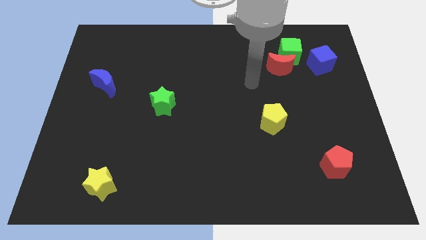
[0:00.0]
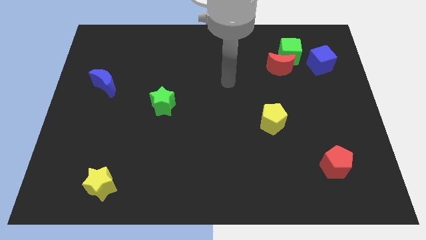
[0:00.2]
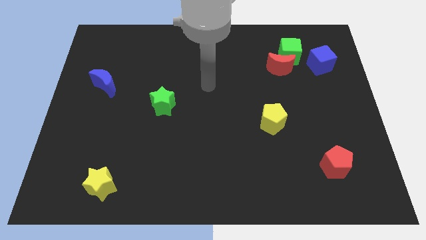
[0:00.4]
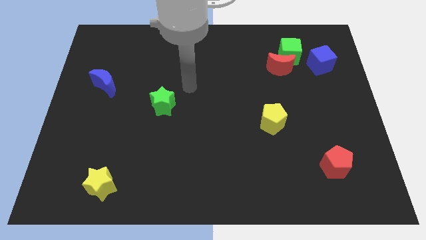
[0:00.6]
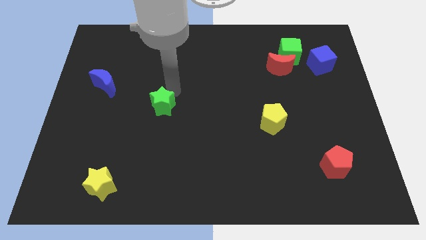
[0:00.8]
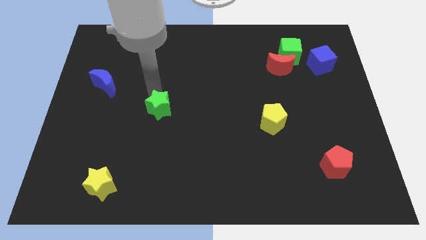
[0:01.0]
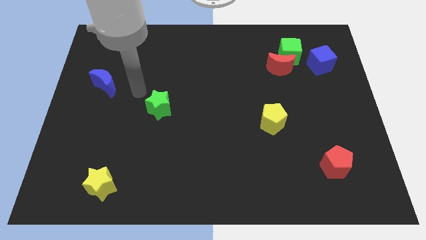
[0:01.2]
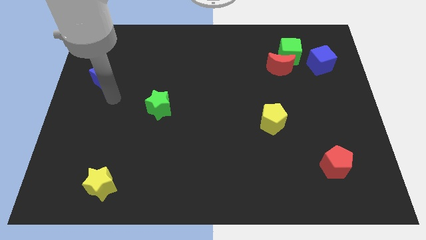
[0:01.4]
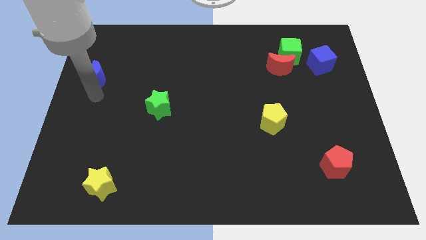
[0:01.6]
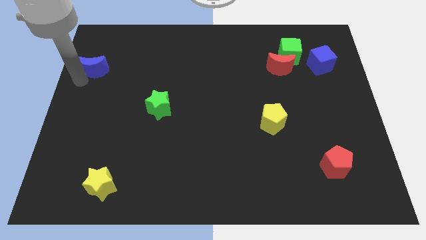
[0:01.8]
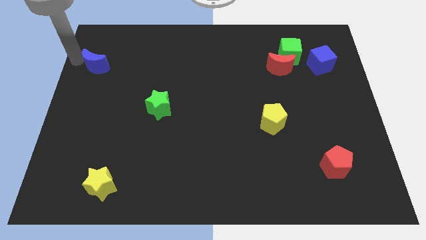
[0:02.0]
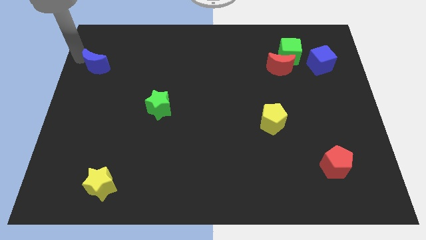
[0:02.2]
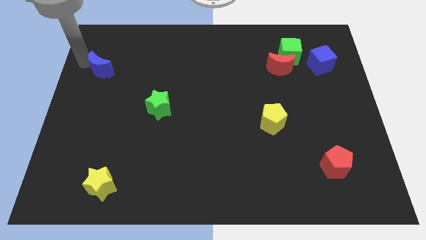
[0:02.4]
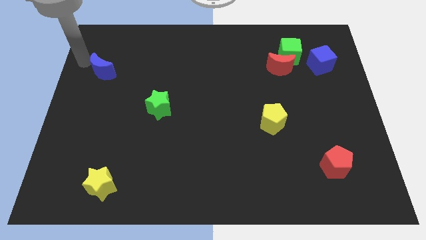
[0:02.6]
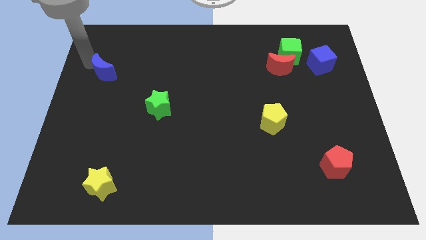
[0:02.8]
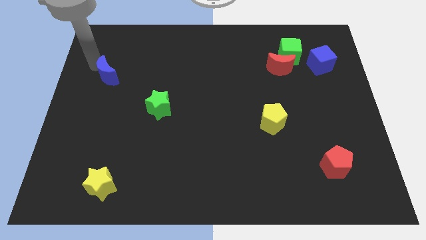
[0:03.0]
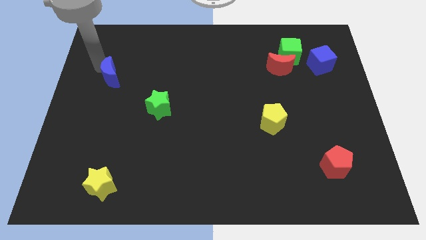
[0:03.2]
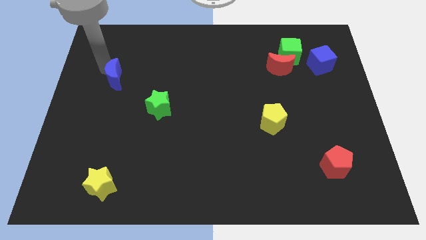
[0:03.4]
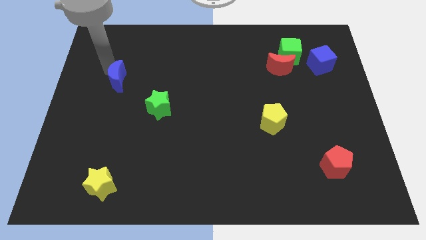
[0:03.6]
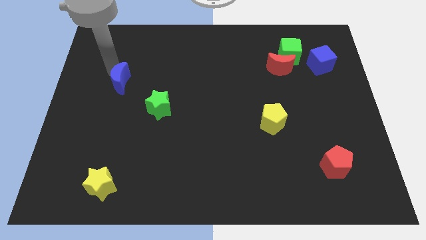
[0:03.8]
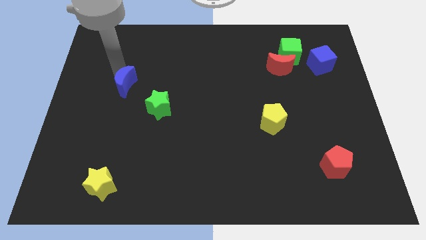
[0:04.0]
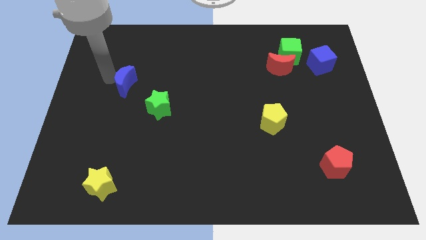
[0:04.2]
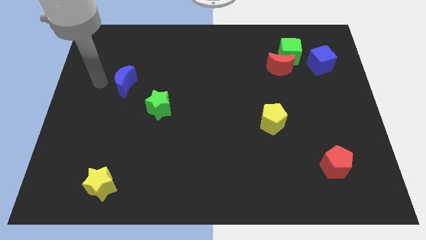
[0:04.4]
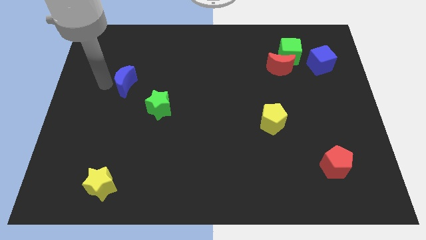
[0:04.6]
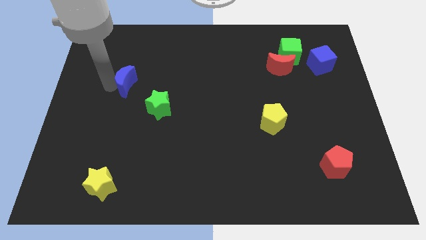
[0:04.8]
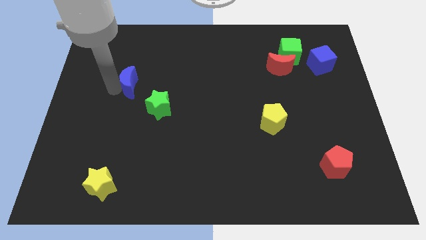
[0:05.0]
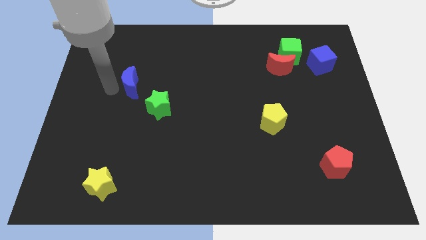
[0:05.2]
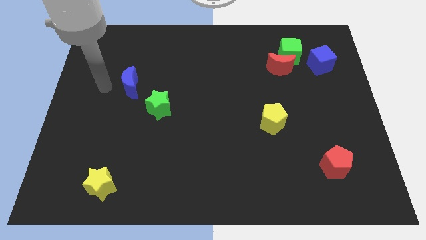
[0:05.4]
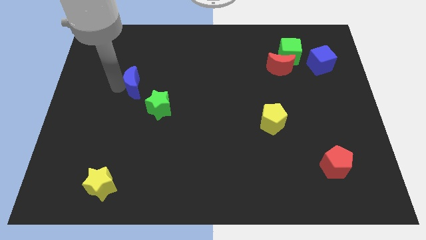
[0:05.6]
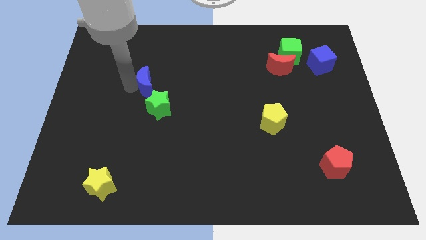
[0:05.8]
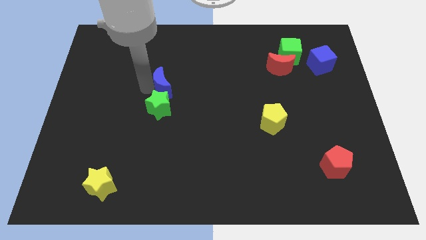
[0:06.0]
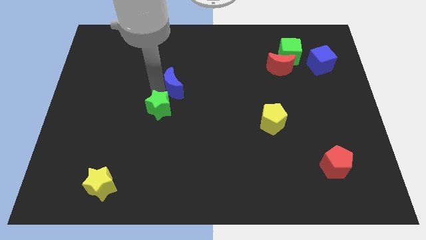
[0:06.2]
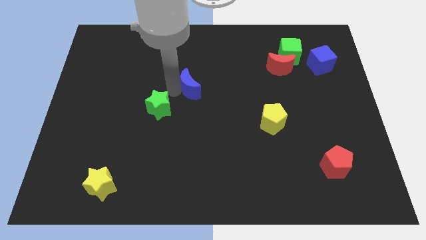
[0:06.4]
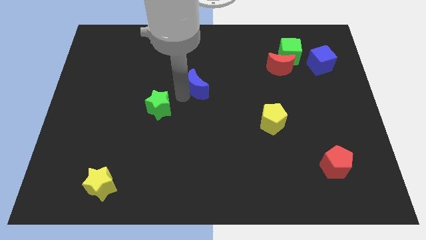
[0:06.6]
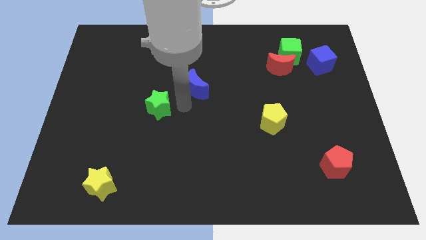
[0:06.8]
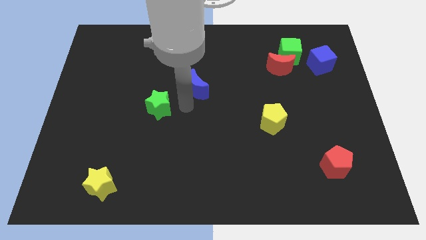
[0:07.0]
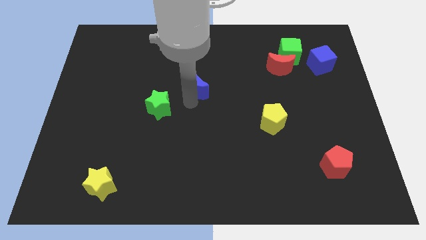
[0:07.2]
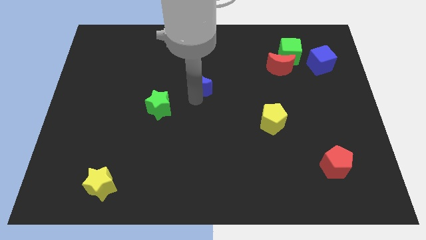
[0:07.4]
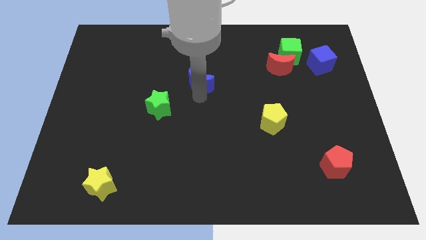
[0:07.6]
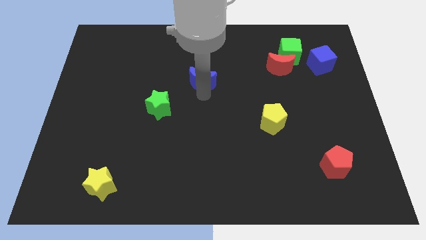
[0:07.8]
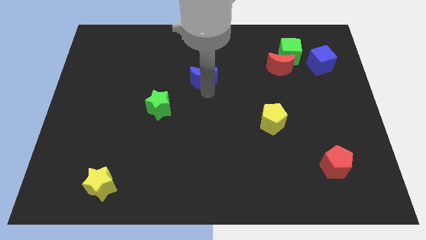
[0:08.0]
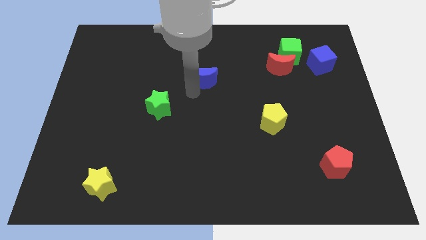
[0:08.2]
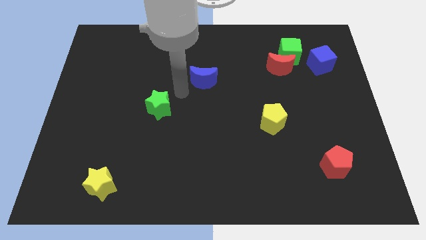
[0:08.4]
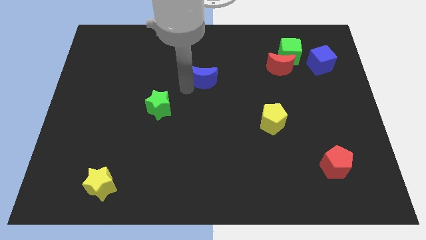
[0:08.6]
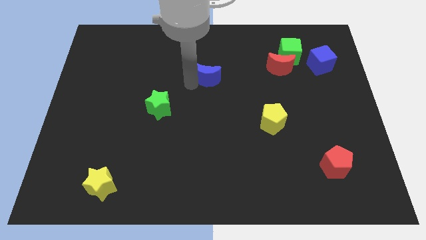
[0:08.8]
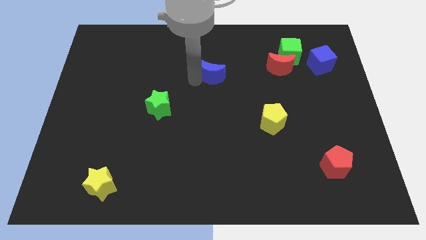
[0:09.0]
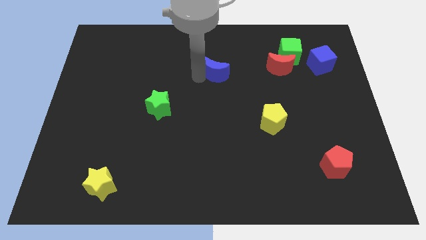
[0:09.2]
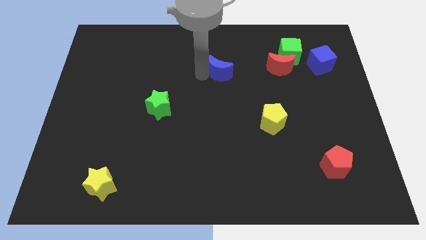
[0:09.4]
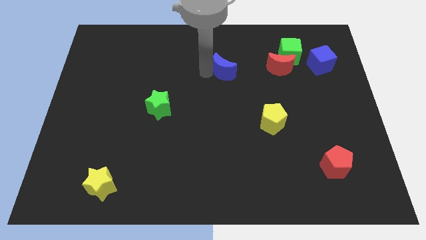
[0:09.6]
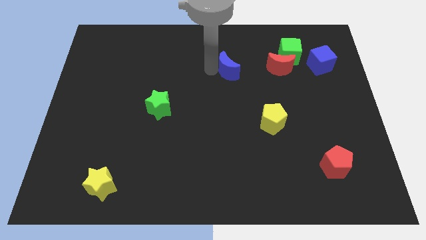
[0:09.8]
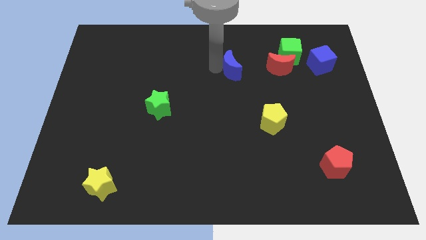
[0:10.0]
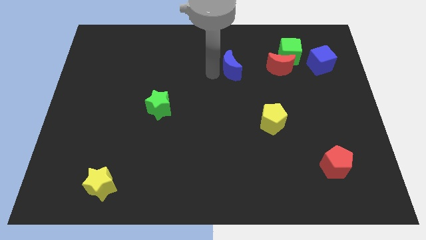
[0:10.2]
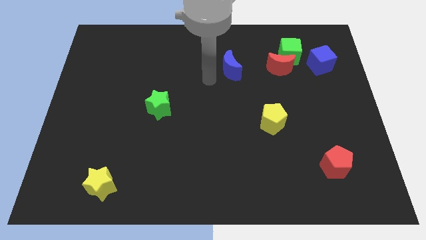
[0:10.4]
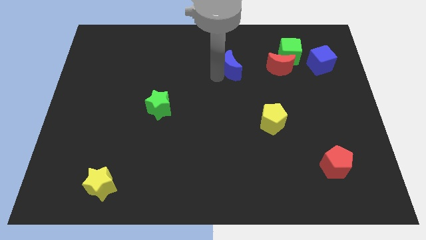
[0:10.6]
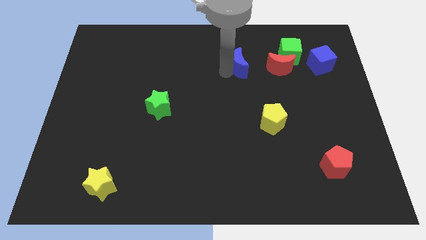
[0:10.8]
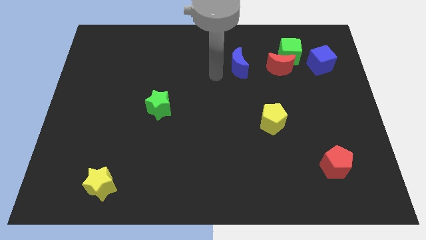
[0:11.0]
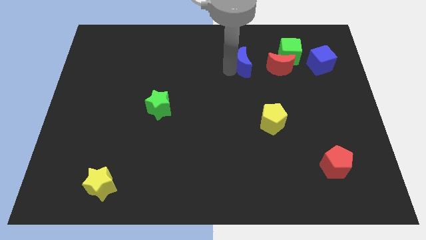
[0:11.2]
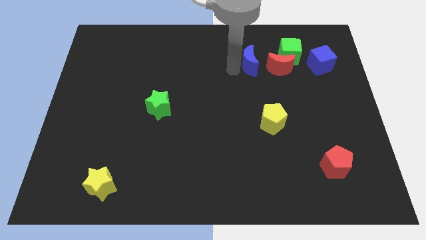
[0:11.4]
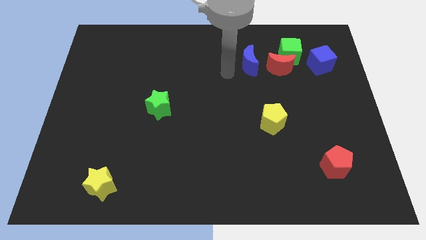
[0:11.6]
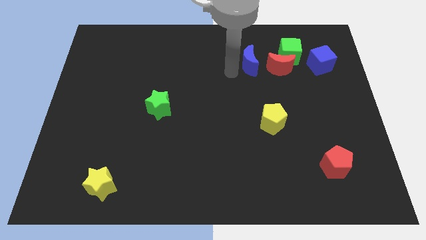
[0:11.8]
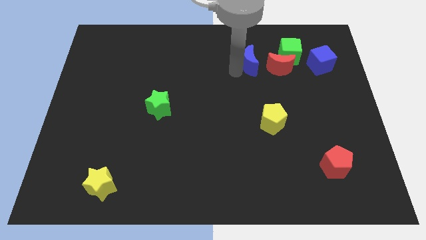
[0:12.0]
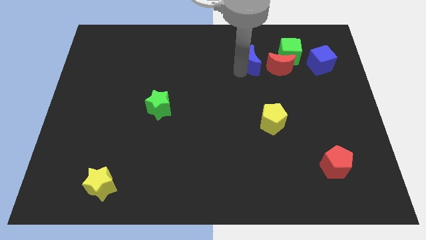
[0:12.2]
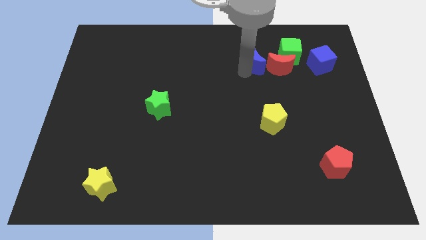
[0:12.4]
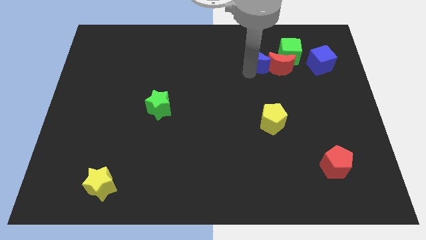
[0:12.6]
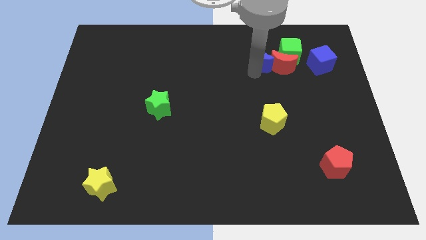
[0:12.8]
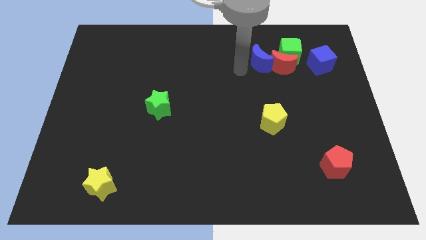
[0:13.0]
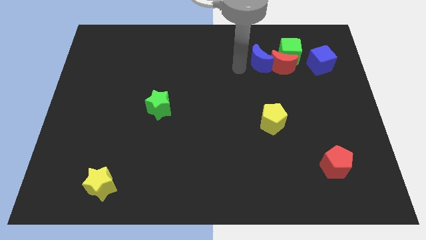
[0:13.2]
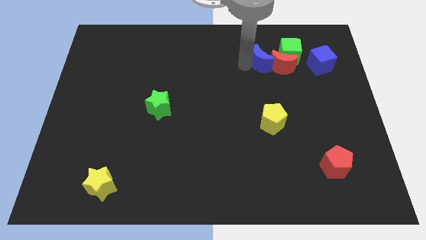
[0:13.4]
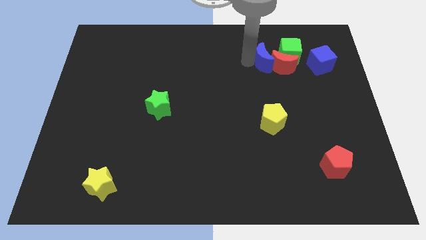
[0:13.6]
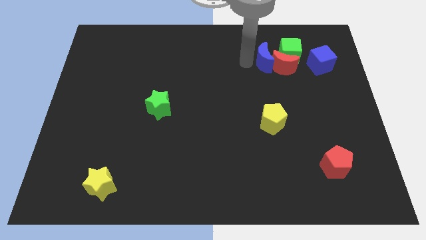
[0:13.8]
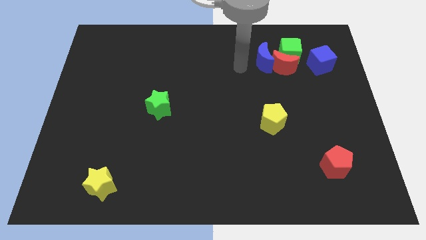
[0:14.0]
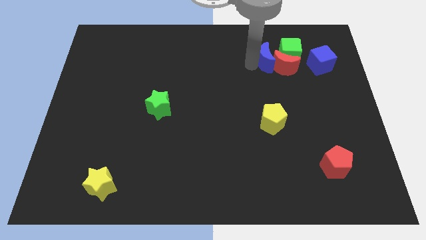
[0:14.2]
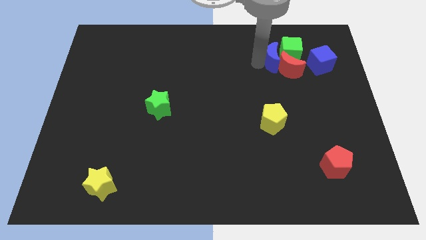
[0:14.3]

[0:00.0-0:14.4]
put the blue moon to the green cube
